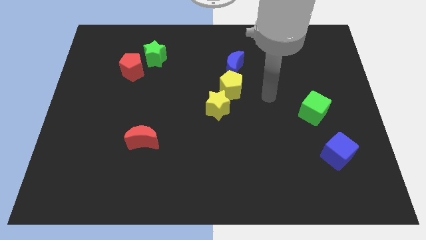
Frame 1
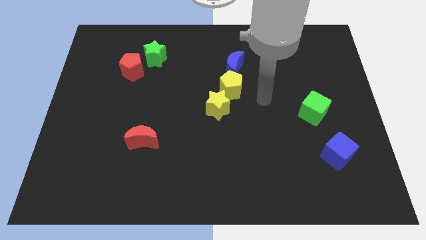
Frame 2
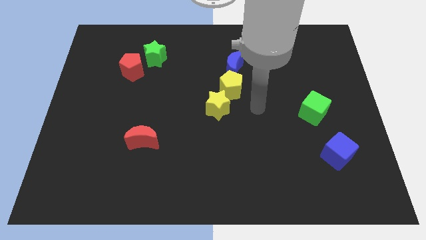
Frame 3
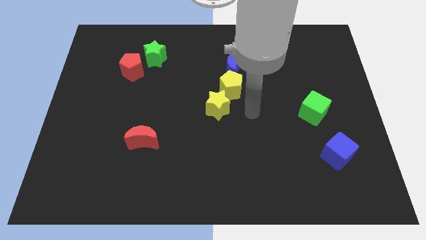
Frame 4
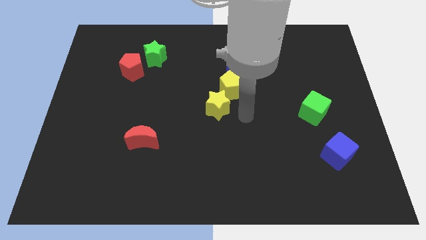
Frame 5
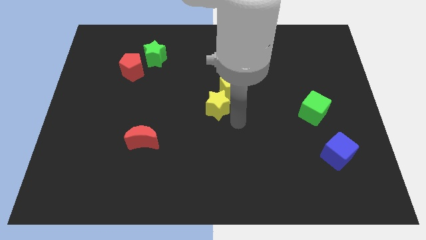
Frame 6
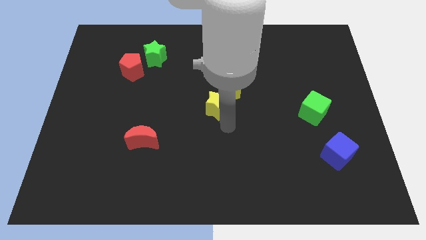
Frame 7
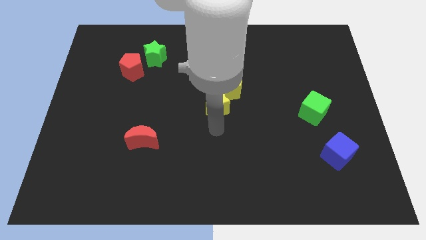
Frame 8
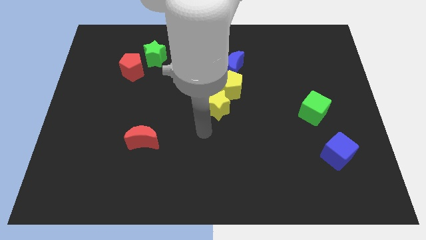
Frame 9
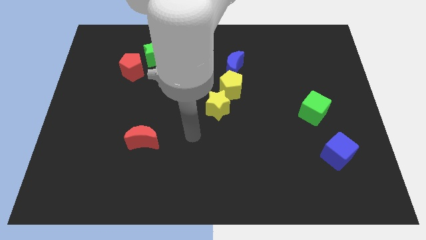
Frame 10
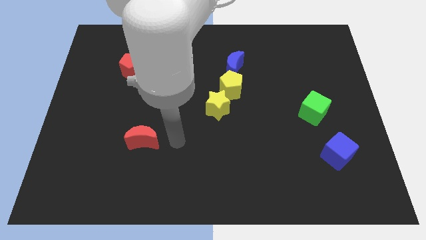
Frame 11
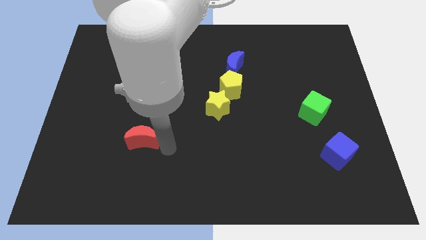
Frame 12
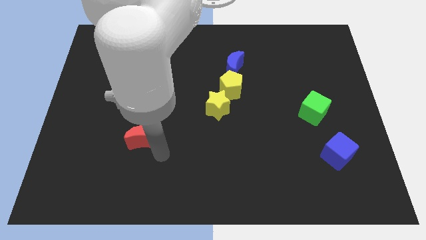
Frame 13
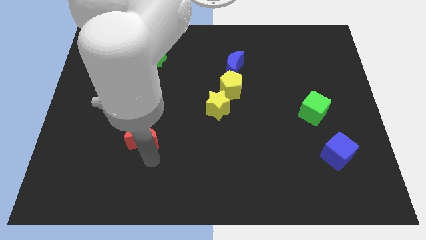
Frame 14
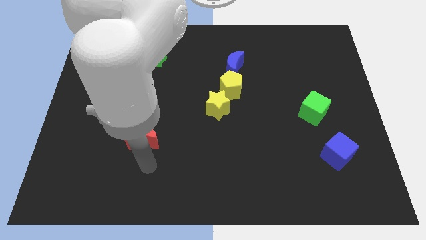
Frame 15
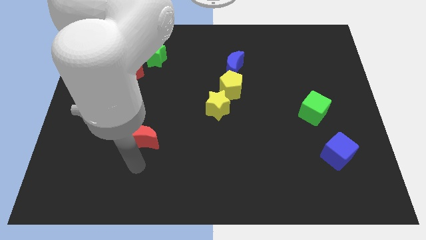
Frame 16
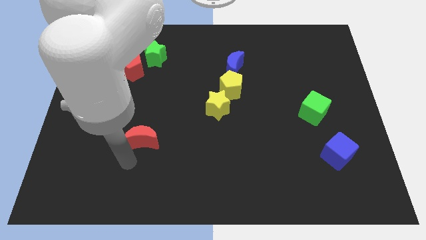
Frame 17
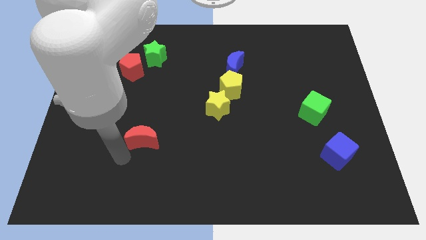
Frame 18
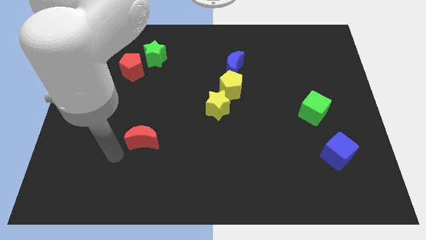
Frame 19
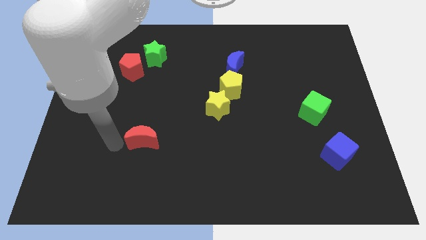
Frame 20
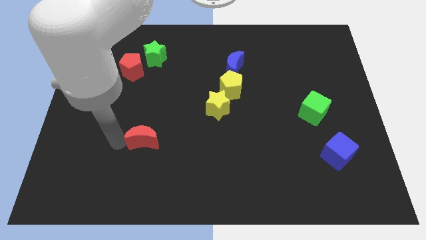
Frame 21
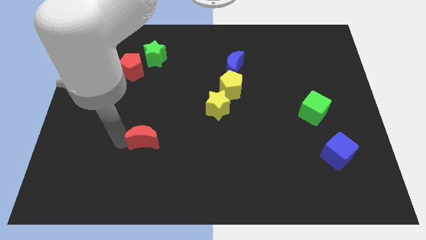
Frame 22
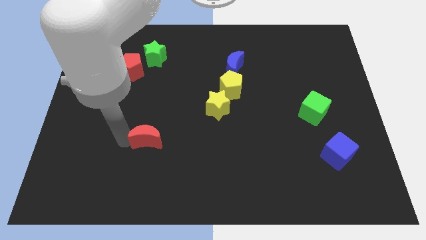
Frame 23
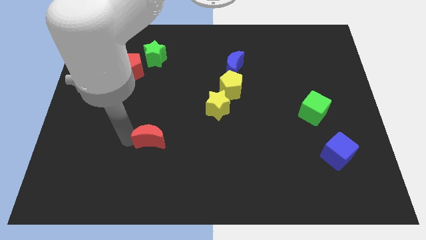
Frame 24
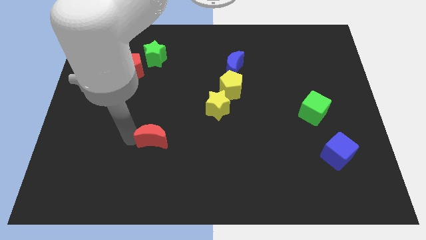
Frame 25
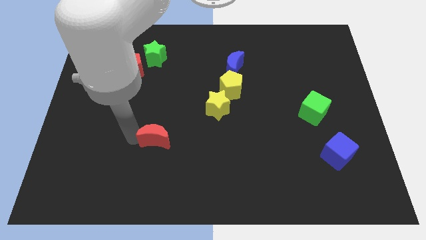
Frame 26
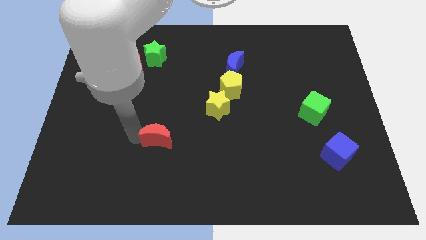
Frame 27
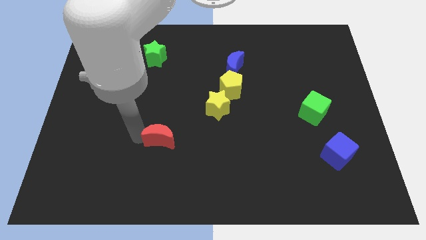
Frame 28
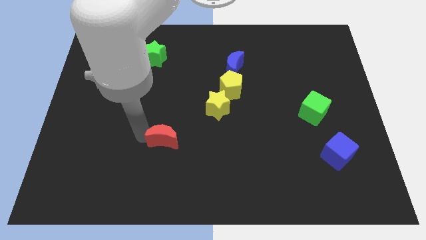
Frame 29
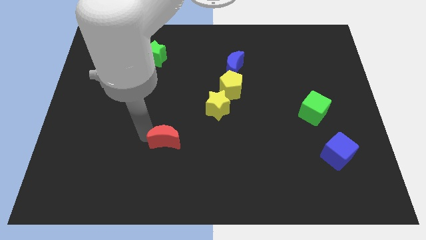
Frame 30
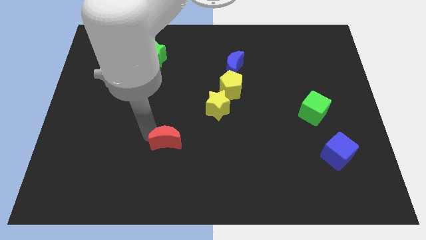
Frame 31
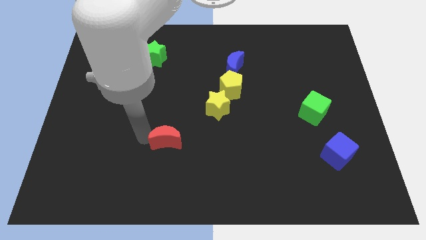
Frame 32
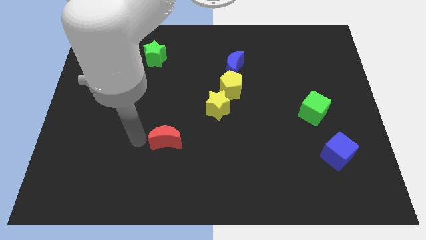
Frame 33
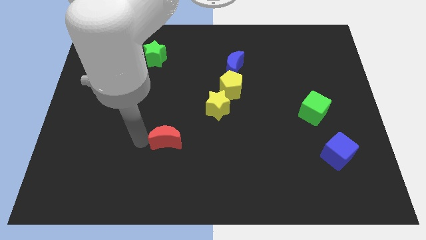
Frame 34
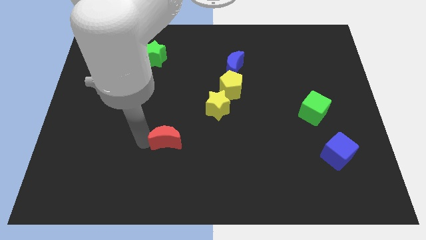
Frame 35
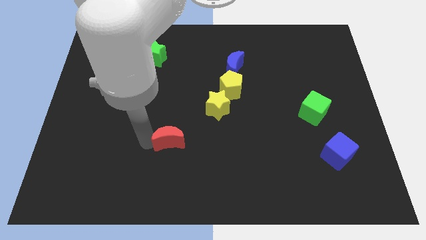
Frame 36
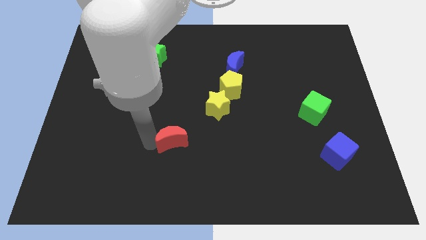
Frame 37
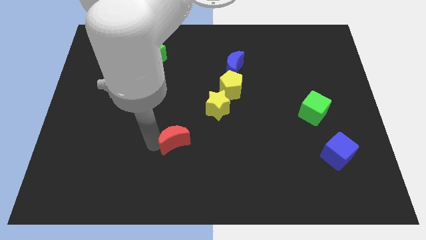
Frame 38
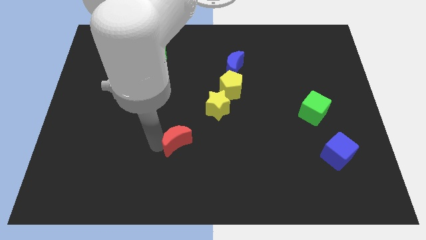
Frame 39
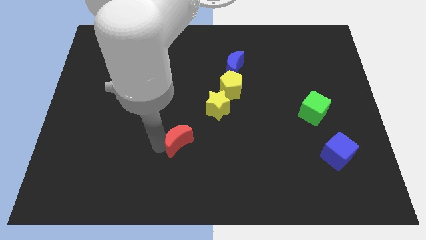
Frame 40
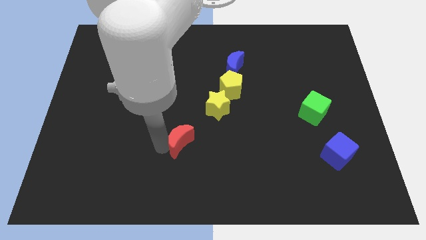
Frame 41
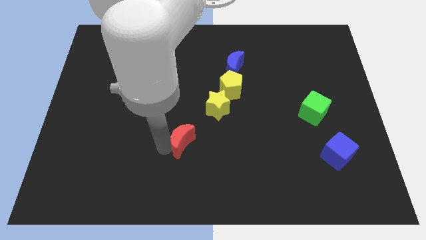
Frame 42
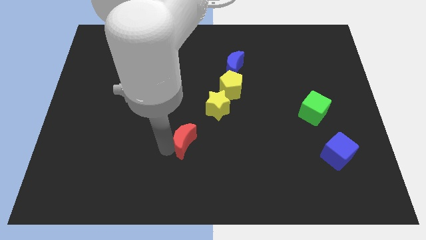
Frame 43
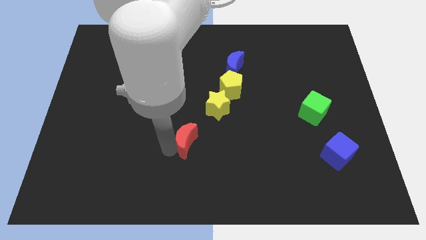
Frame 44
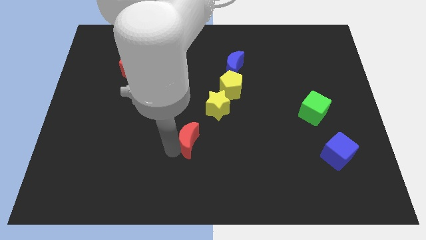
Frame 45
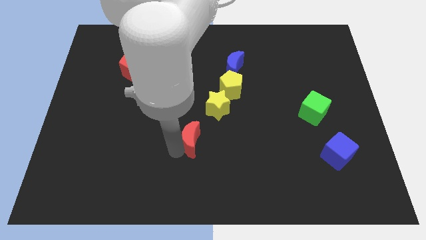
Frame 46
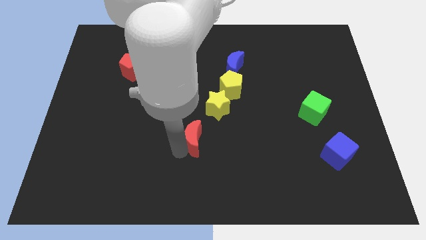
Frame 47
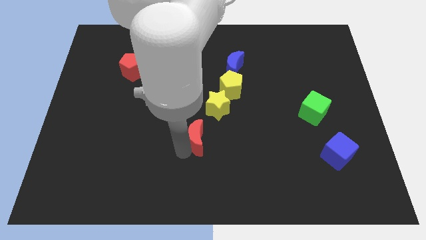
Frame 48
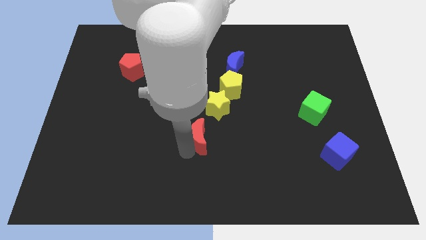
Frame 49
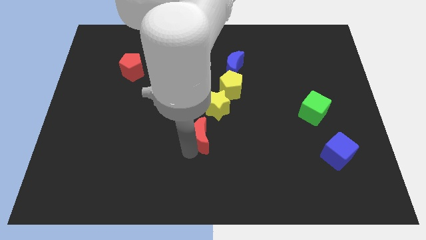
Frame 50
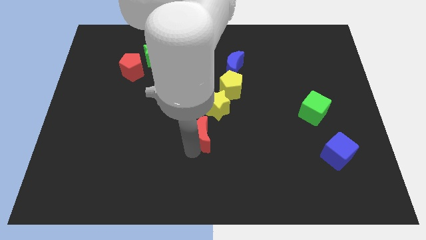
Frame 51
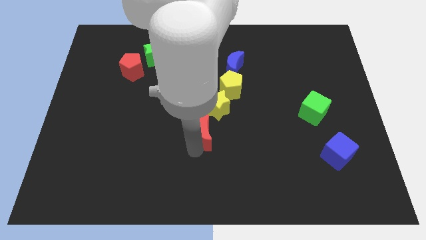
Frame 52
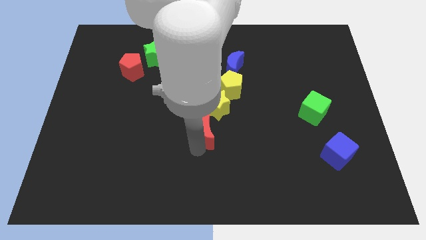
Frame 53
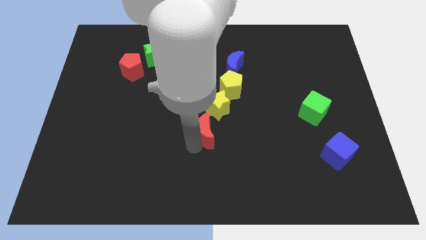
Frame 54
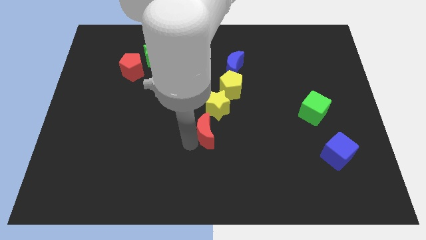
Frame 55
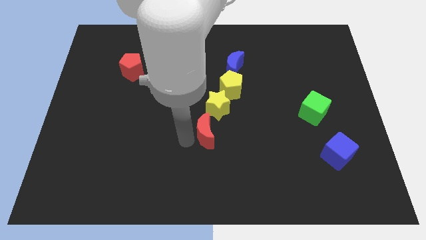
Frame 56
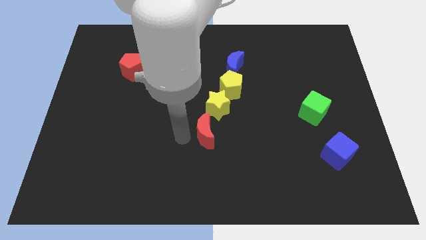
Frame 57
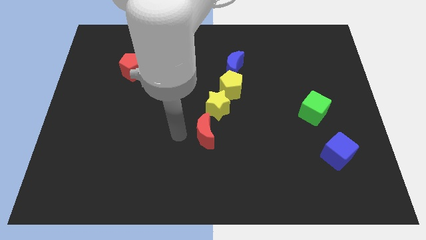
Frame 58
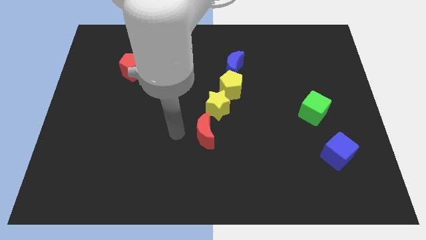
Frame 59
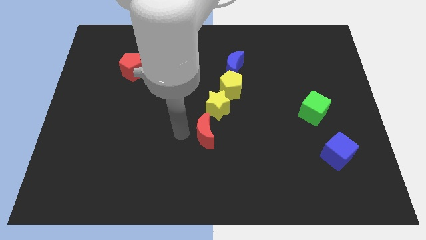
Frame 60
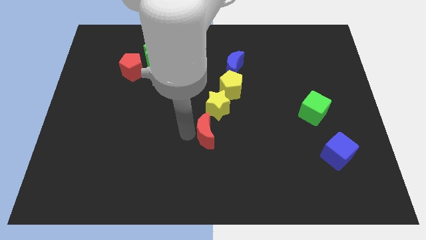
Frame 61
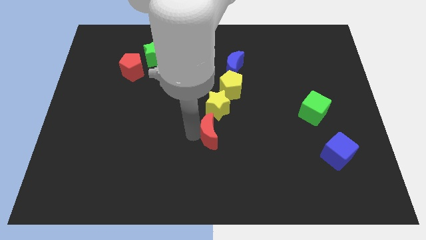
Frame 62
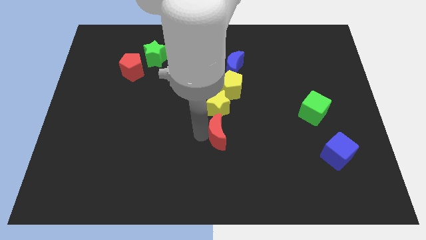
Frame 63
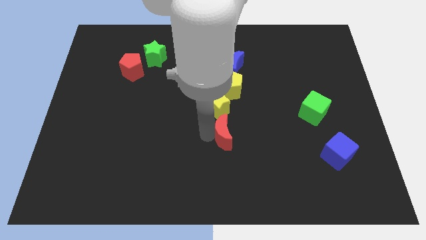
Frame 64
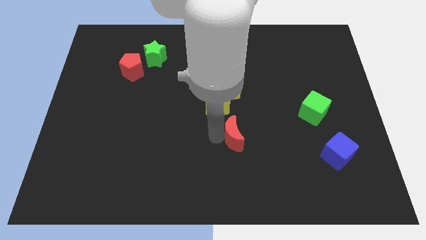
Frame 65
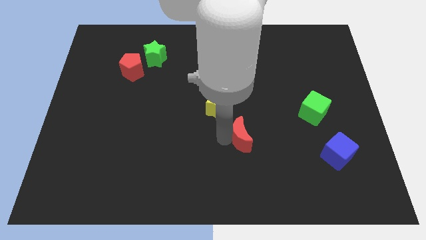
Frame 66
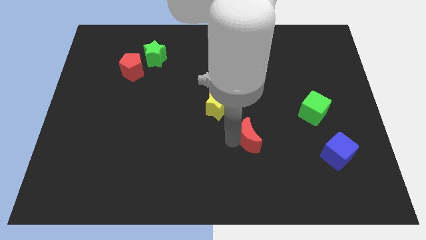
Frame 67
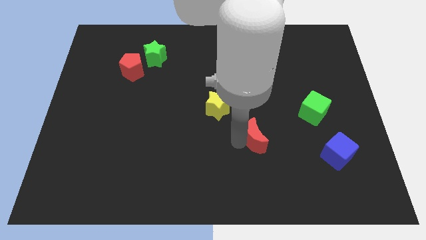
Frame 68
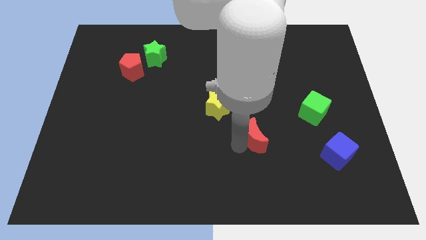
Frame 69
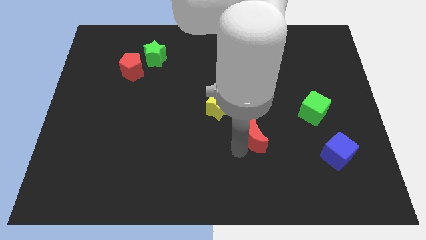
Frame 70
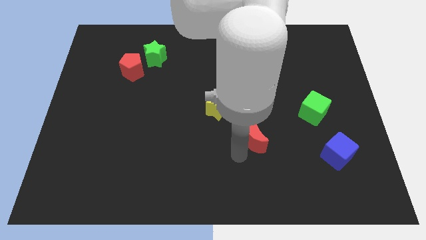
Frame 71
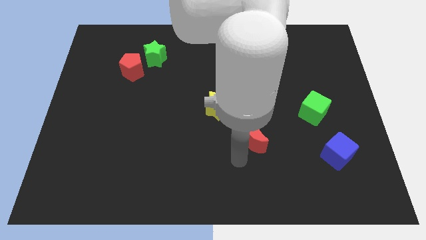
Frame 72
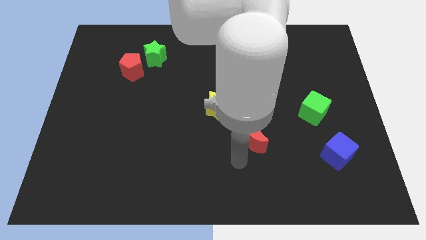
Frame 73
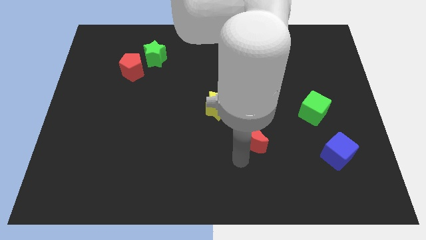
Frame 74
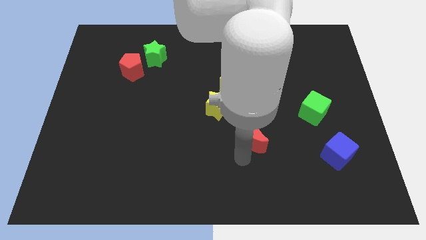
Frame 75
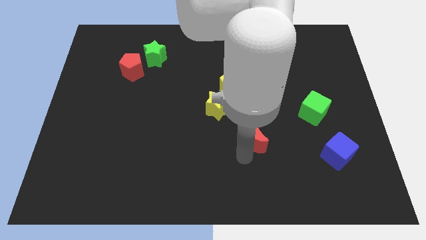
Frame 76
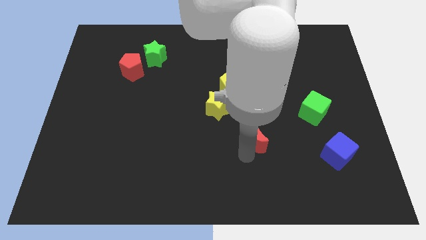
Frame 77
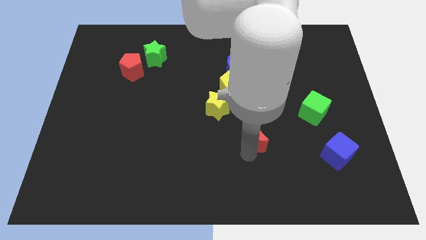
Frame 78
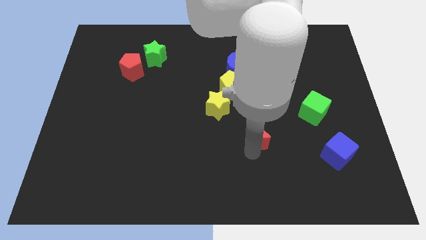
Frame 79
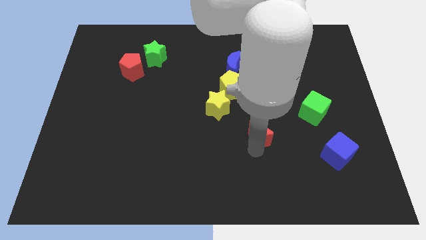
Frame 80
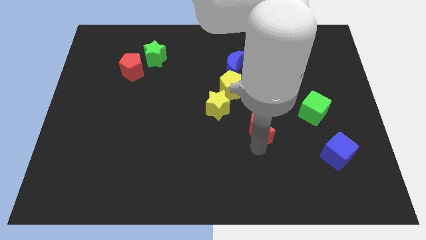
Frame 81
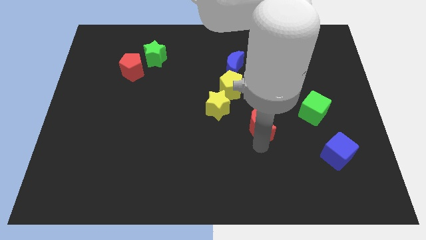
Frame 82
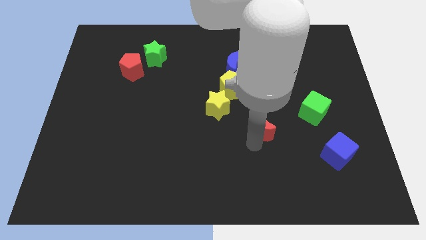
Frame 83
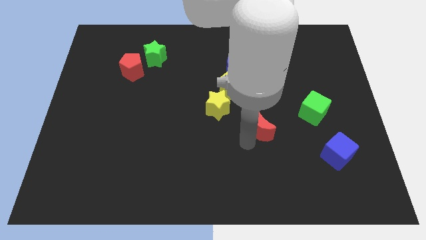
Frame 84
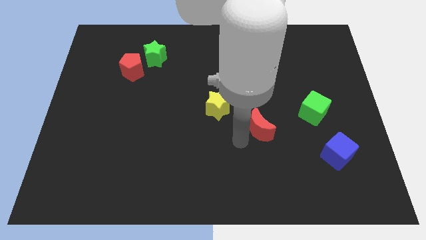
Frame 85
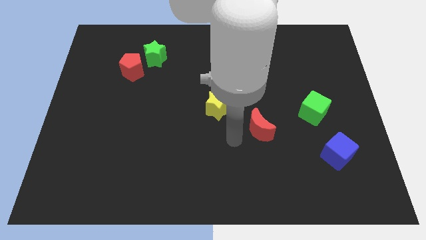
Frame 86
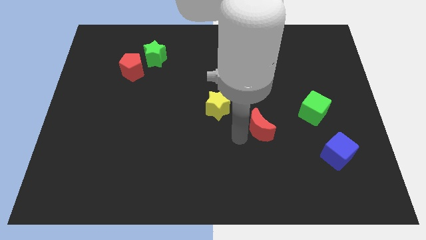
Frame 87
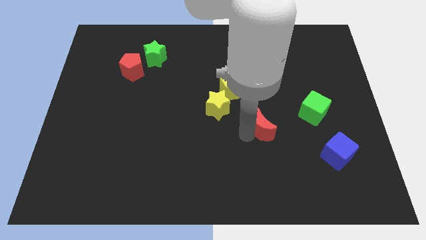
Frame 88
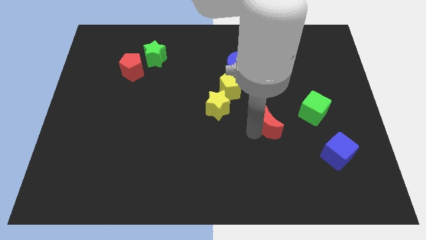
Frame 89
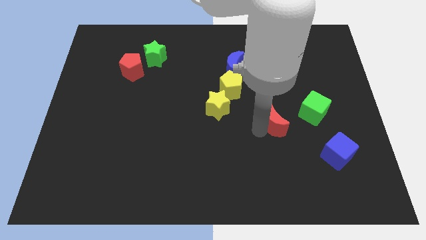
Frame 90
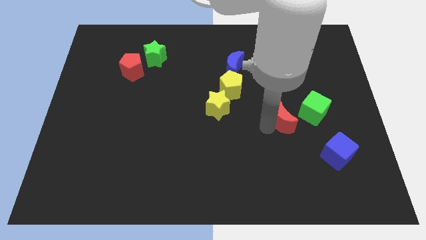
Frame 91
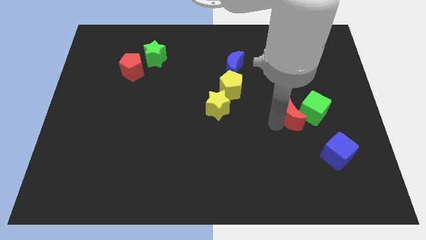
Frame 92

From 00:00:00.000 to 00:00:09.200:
push the red moon close to the green cube
